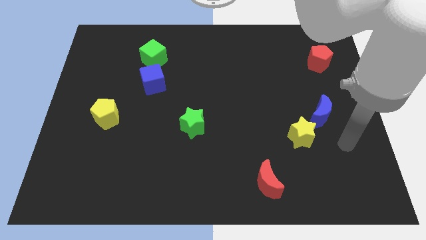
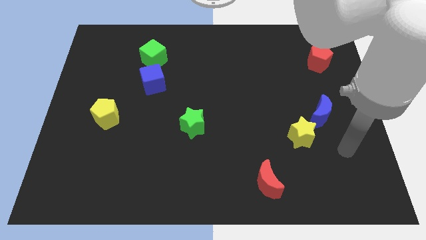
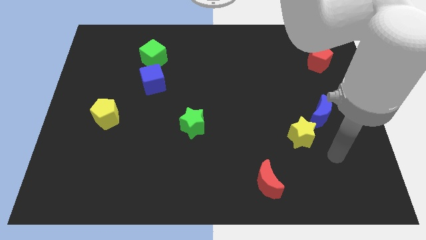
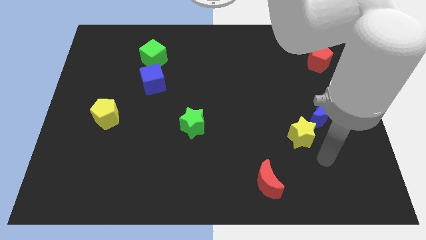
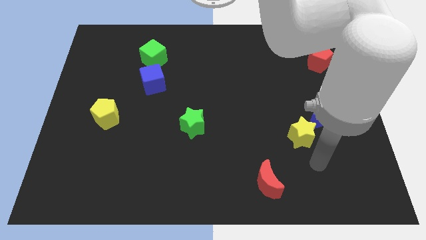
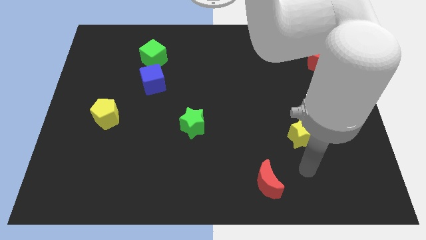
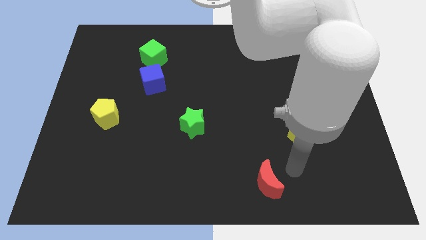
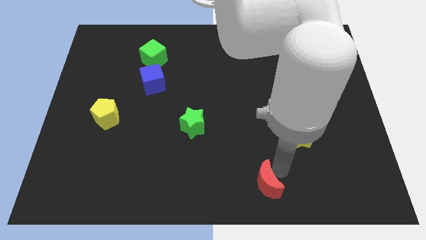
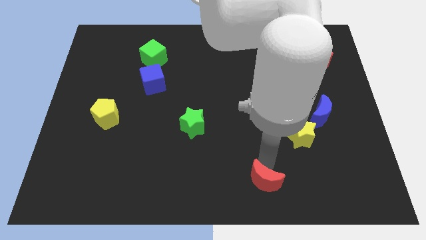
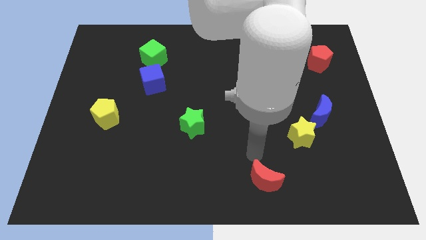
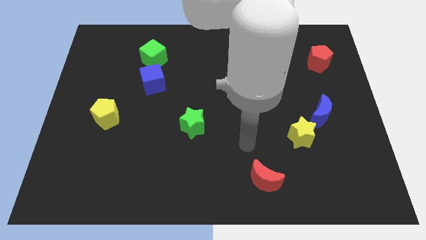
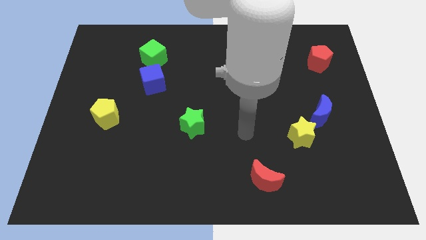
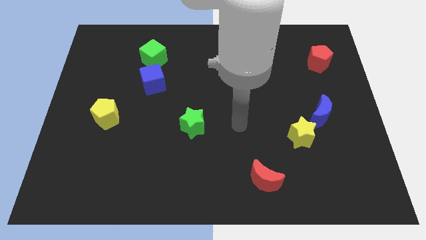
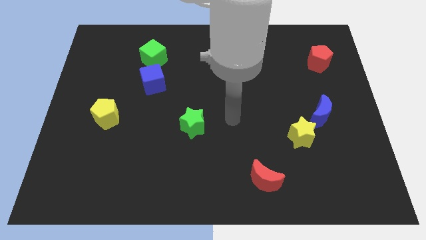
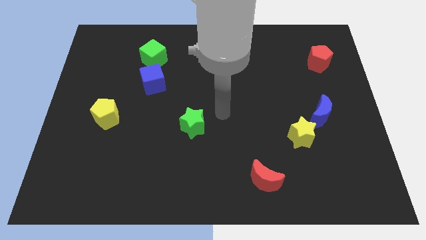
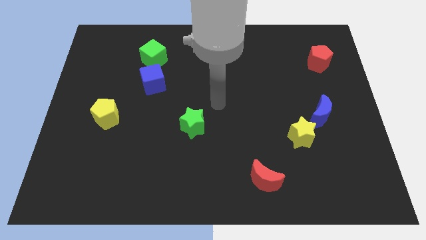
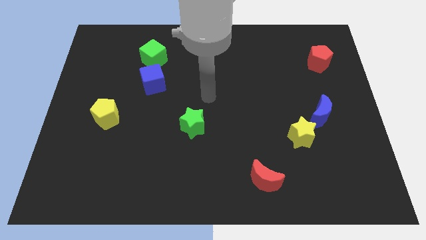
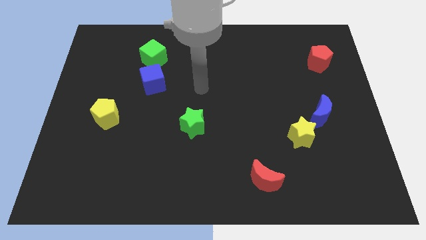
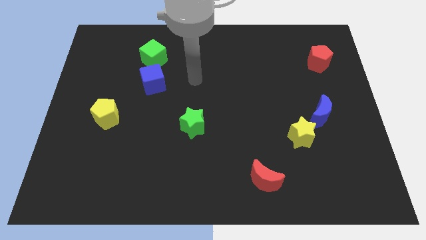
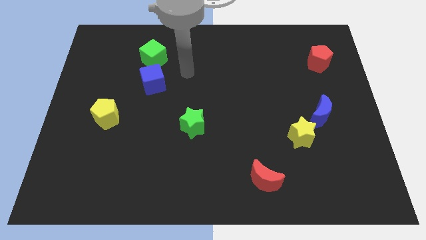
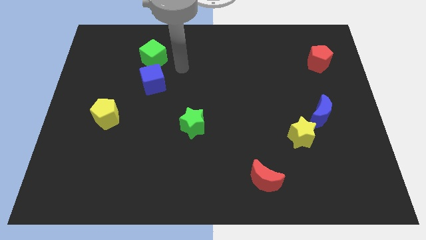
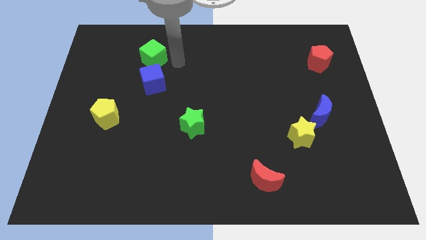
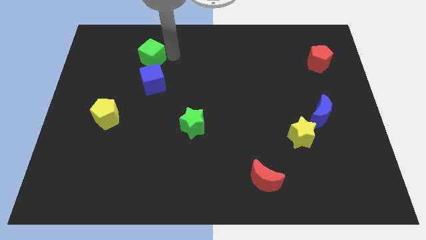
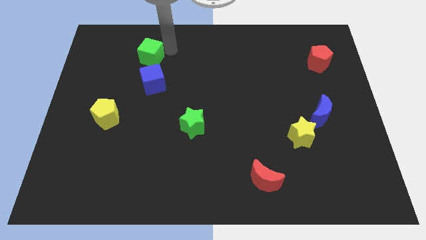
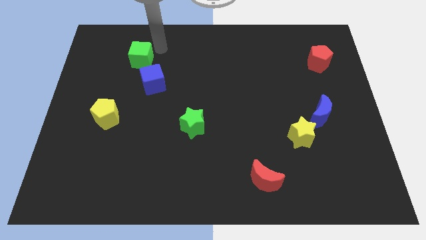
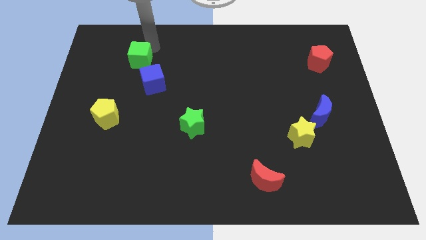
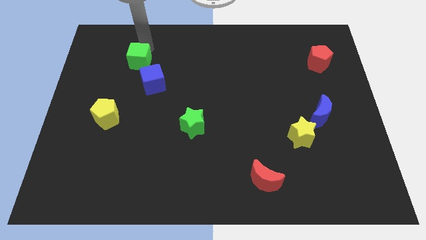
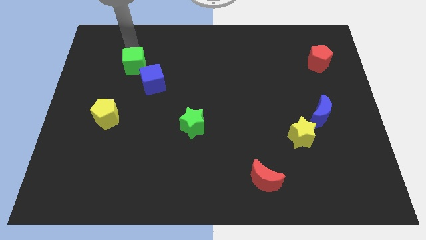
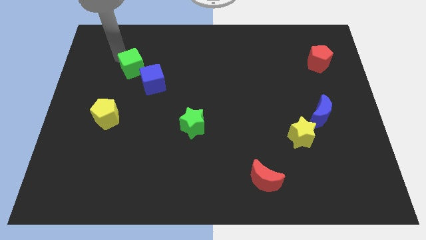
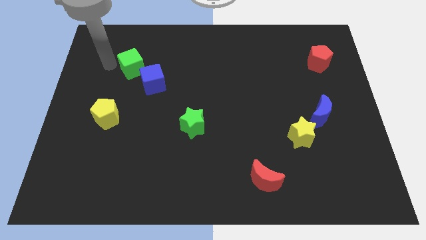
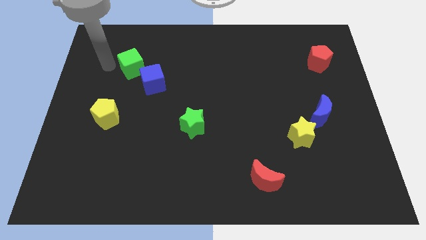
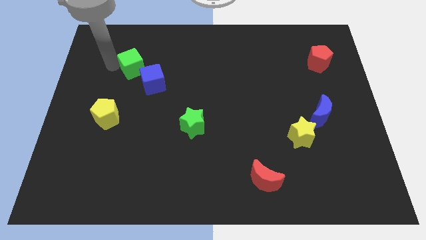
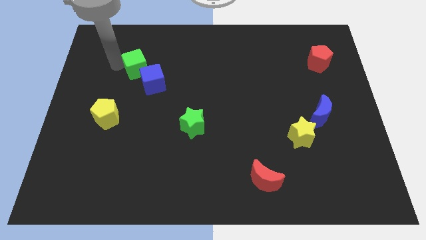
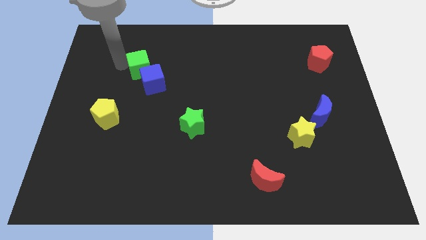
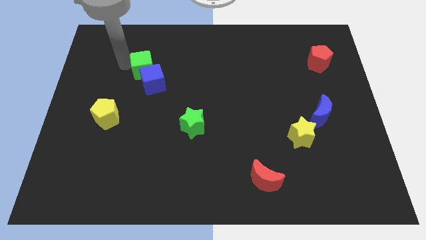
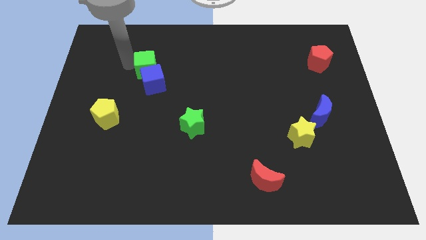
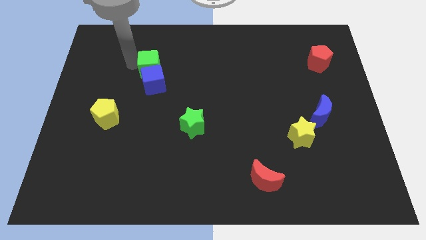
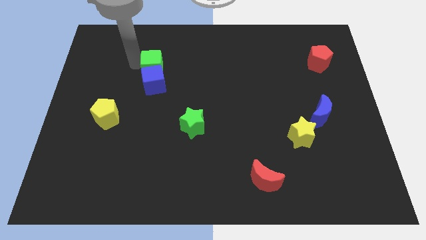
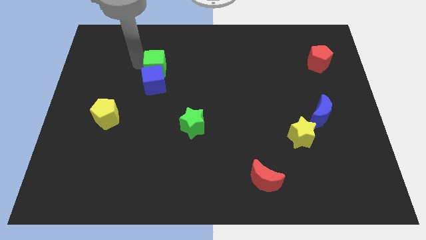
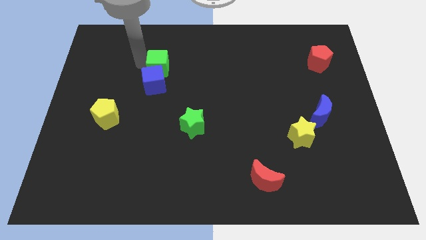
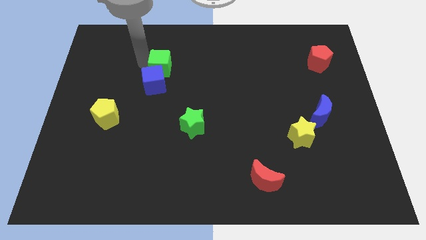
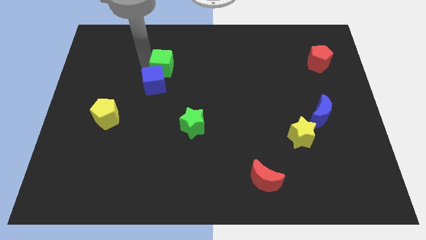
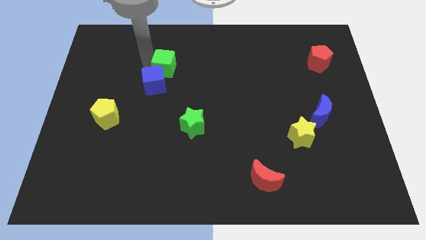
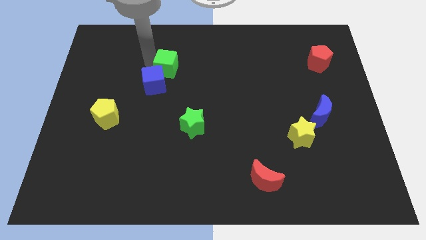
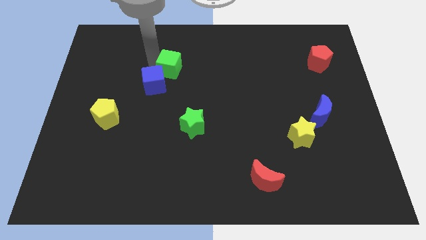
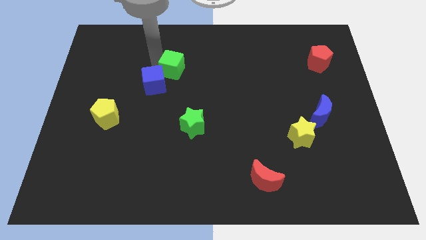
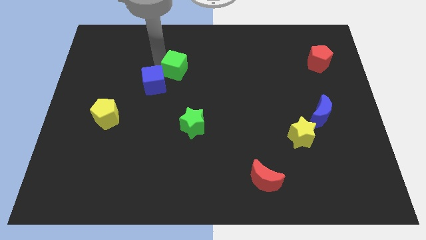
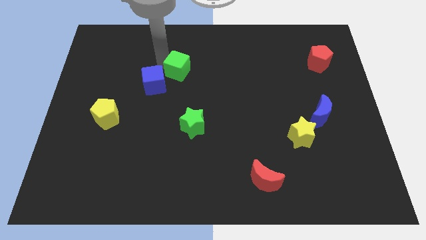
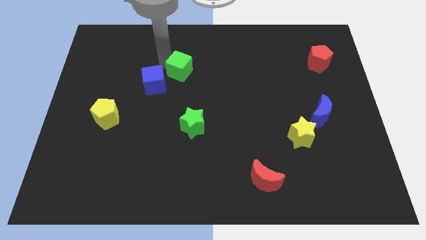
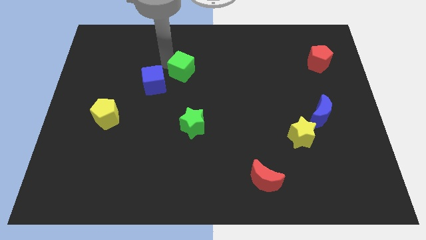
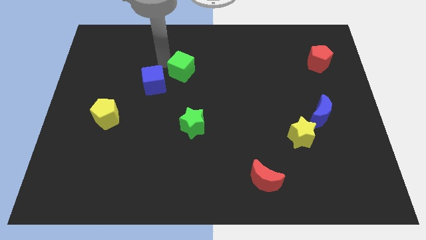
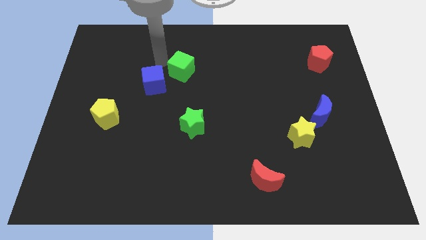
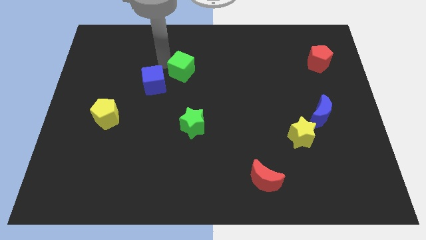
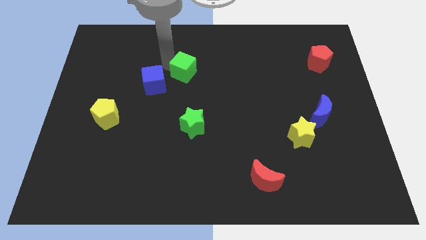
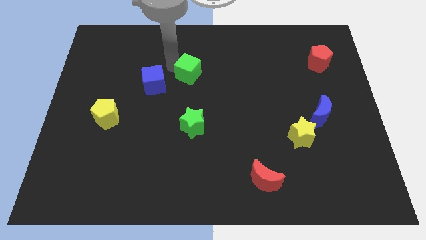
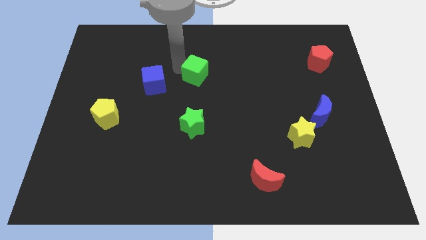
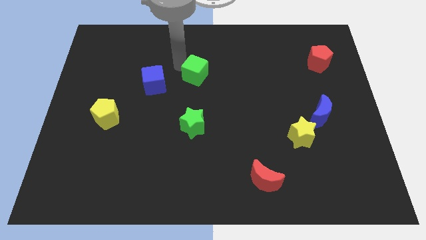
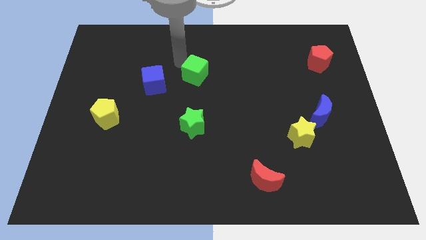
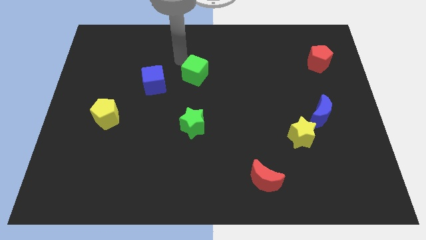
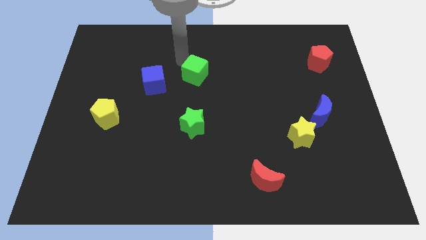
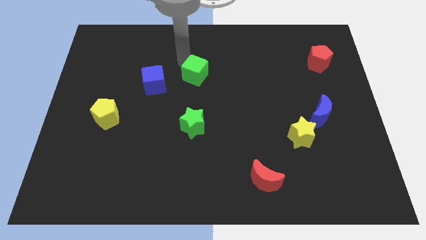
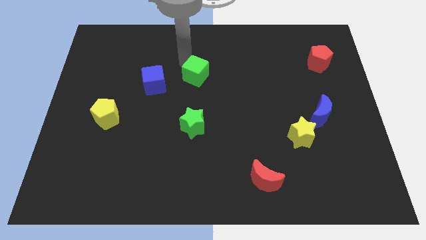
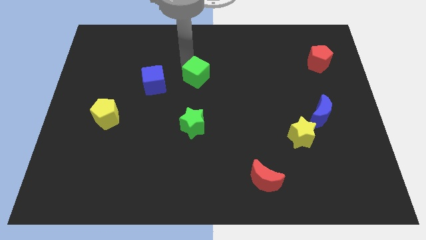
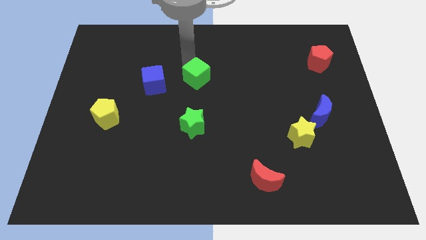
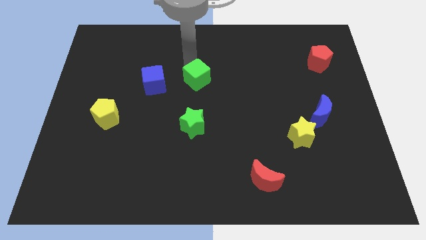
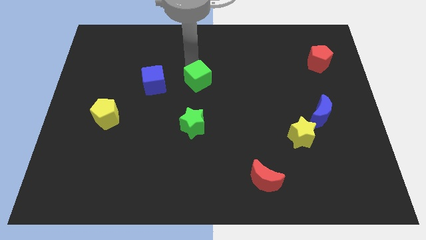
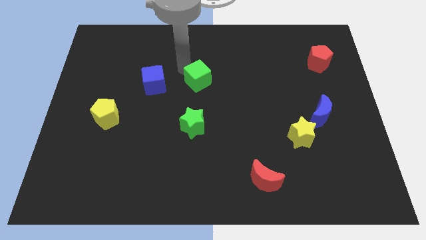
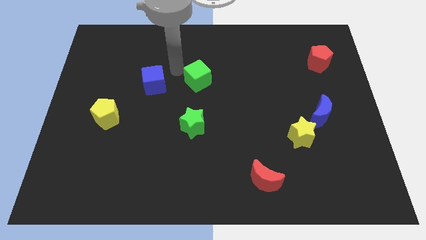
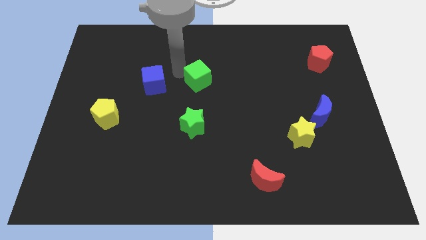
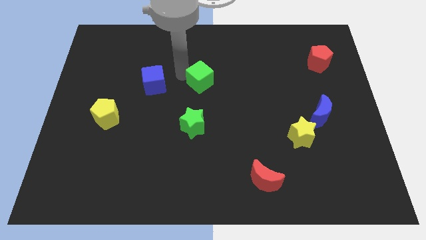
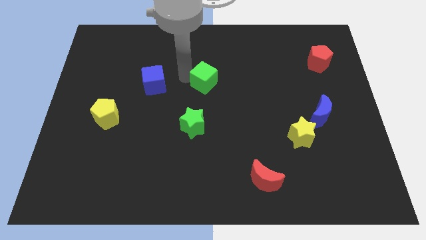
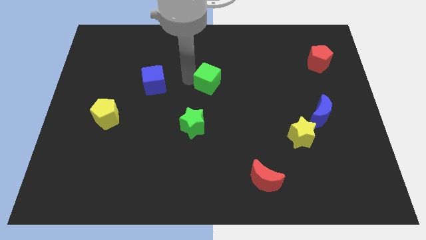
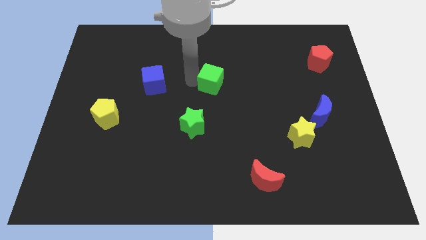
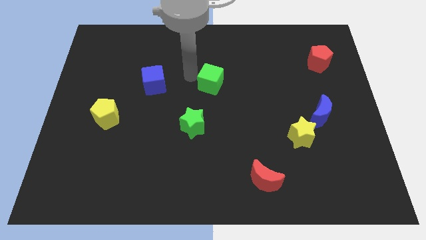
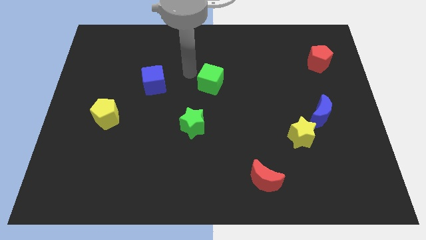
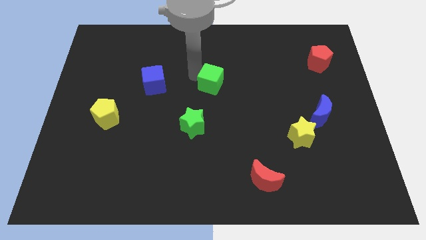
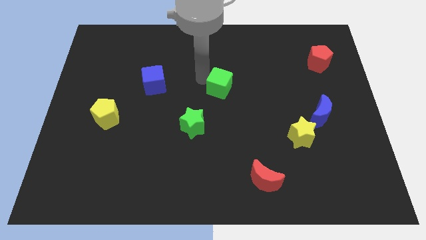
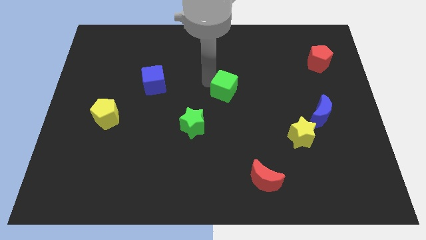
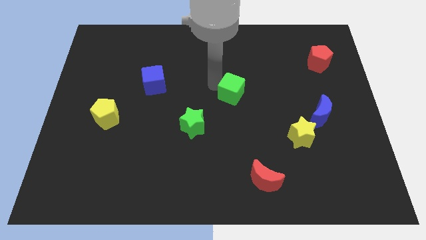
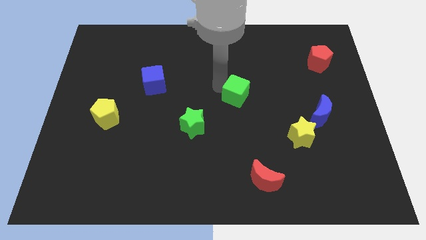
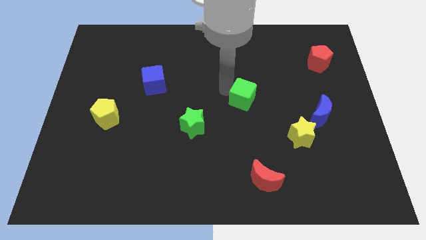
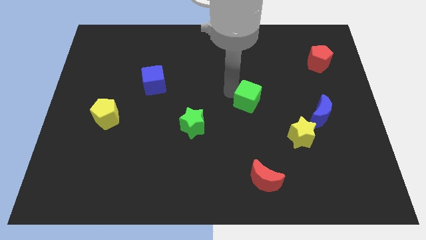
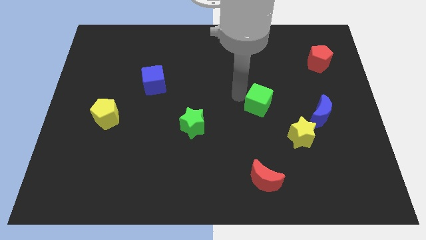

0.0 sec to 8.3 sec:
push the green cube to the left of the blue moon
